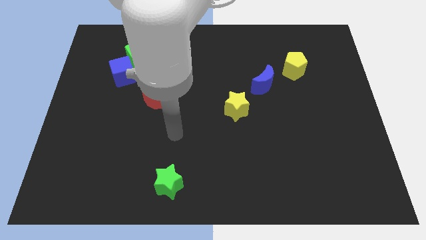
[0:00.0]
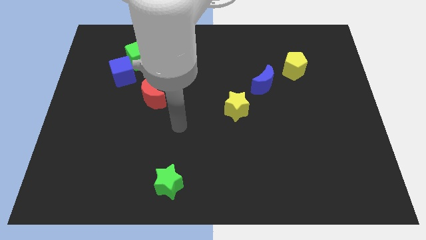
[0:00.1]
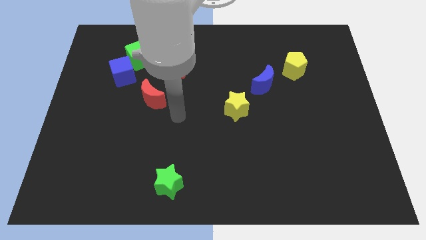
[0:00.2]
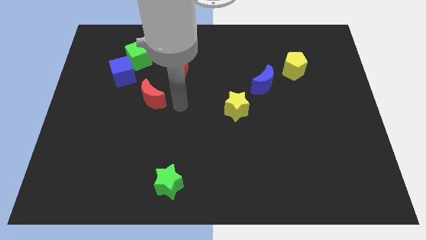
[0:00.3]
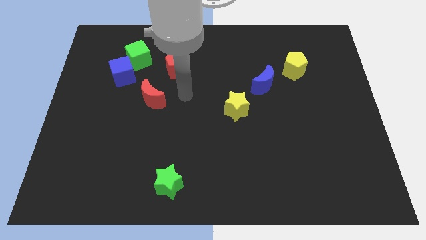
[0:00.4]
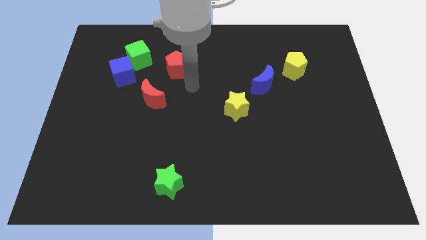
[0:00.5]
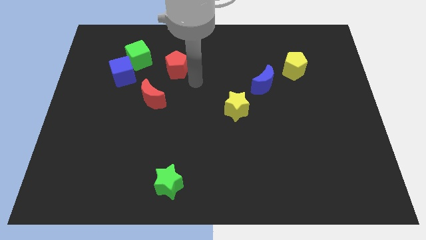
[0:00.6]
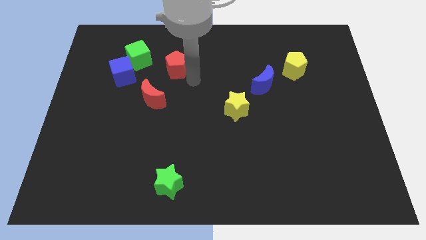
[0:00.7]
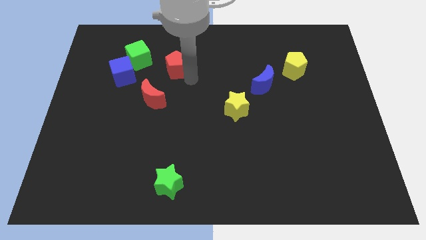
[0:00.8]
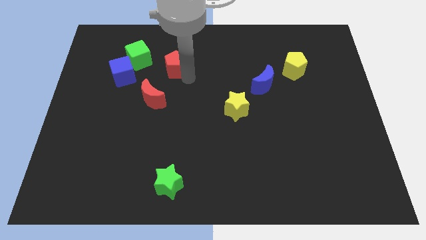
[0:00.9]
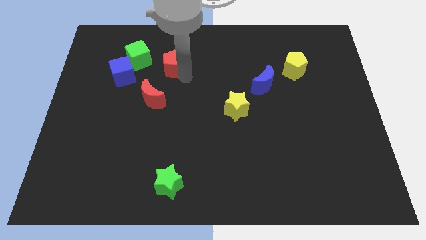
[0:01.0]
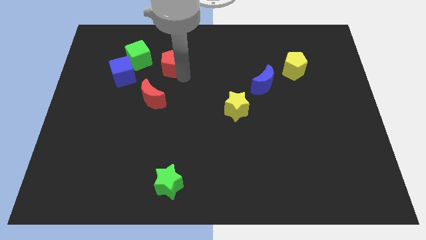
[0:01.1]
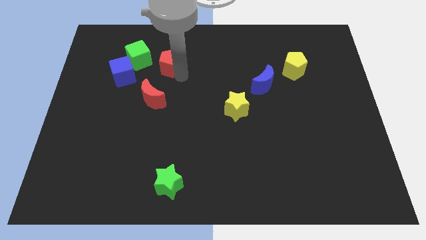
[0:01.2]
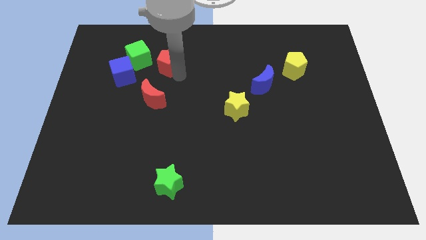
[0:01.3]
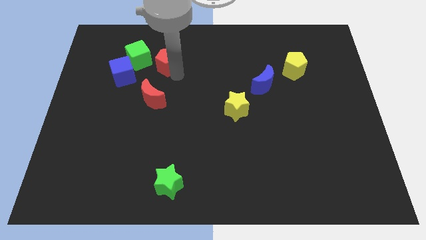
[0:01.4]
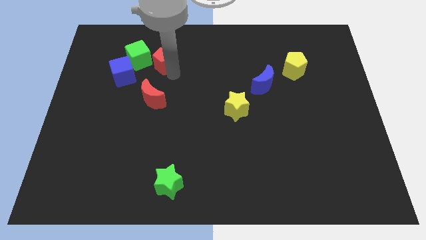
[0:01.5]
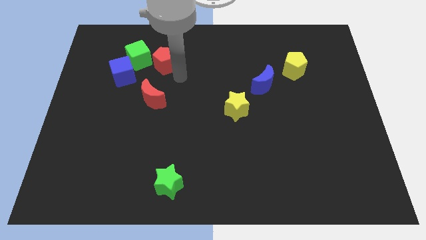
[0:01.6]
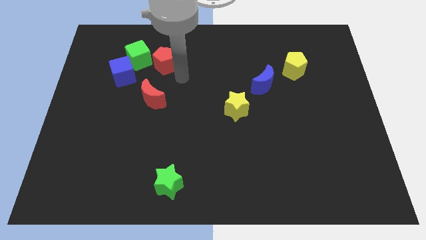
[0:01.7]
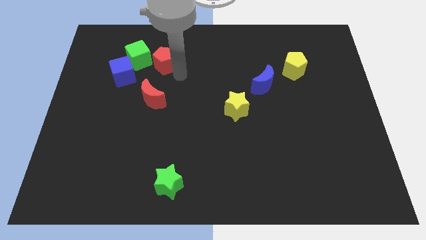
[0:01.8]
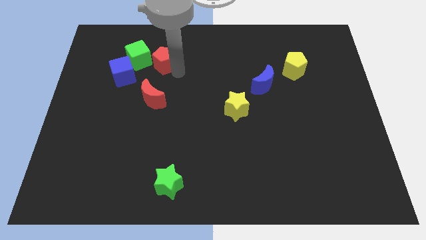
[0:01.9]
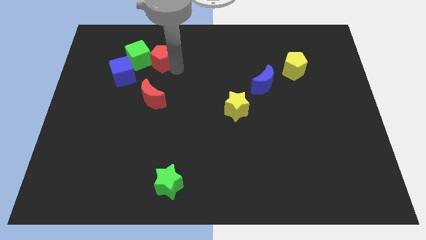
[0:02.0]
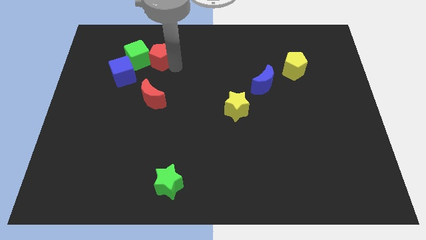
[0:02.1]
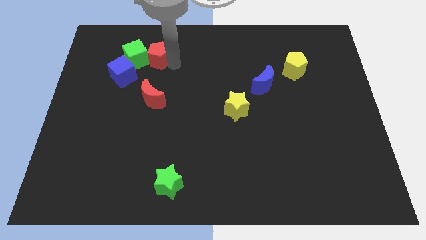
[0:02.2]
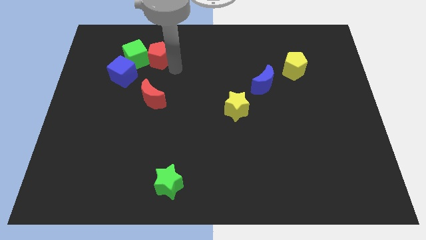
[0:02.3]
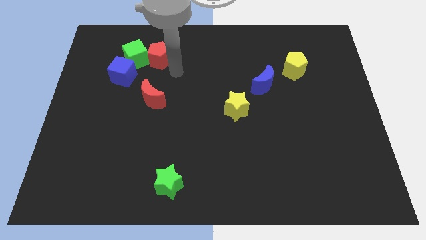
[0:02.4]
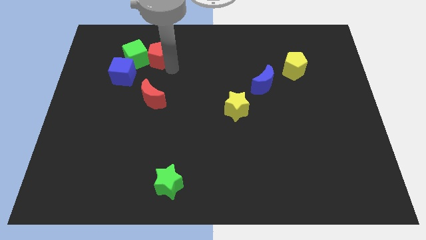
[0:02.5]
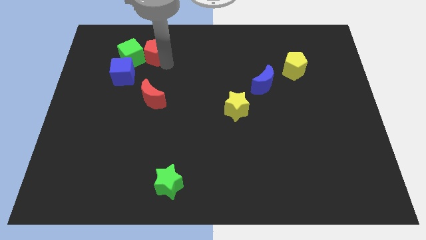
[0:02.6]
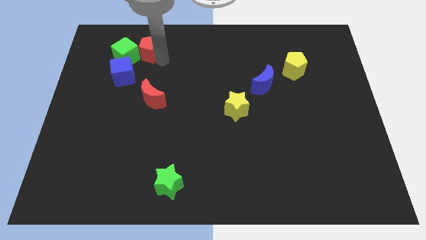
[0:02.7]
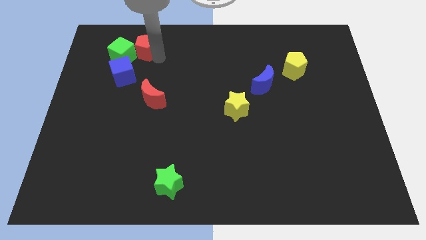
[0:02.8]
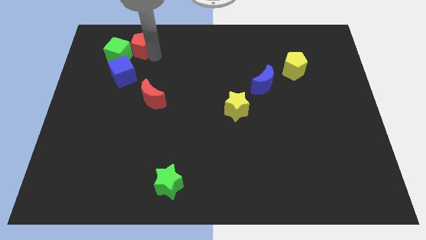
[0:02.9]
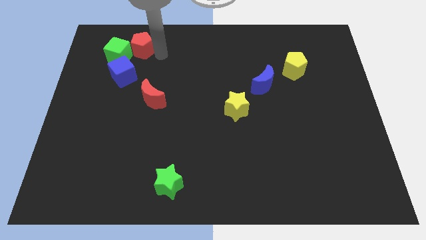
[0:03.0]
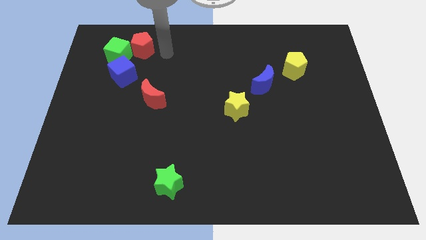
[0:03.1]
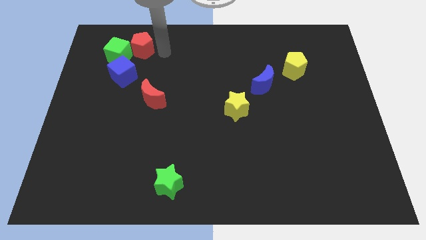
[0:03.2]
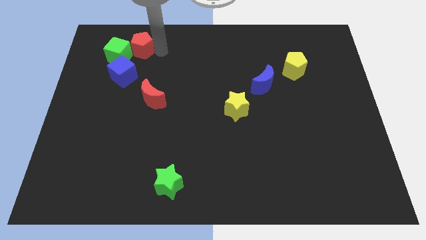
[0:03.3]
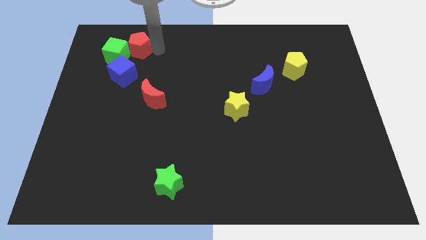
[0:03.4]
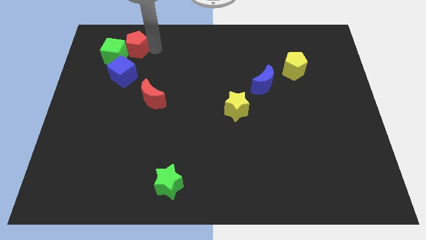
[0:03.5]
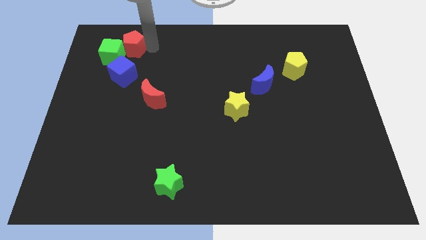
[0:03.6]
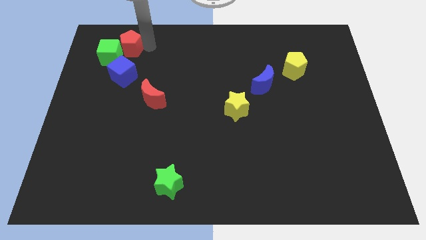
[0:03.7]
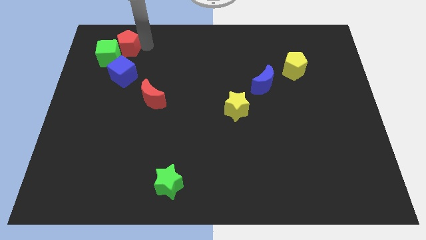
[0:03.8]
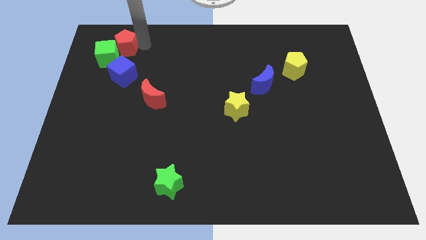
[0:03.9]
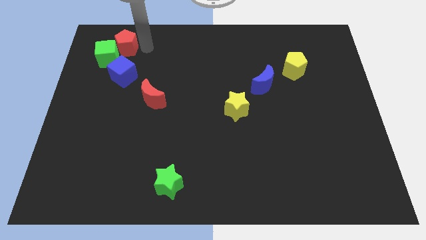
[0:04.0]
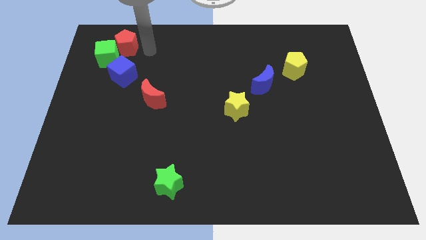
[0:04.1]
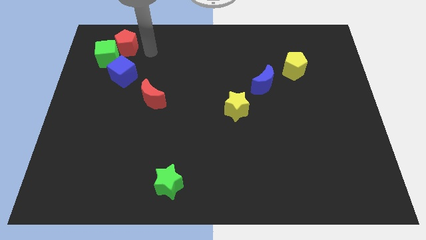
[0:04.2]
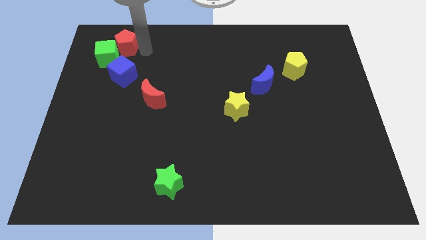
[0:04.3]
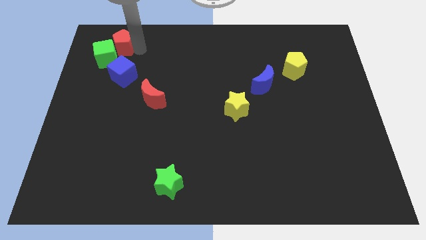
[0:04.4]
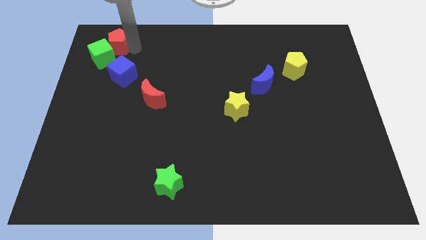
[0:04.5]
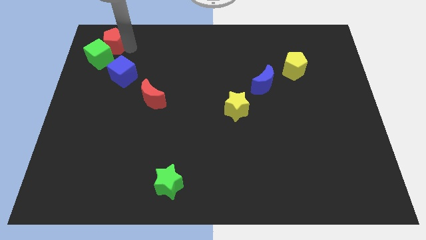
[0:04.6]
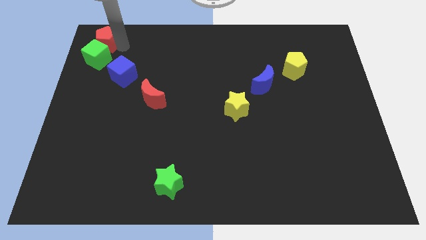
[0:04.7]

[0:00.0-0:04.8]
move the red pentagon to the top left of the board
